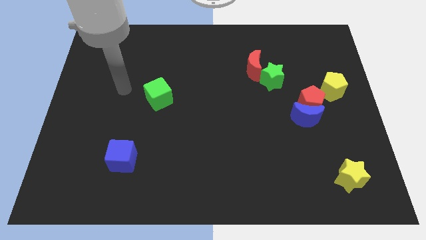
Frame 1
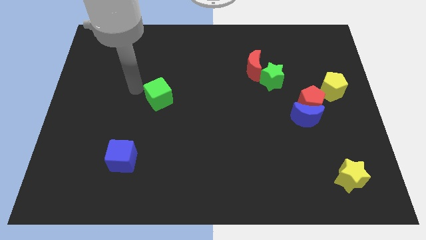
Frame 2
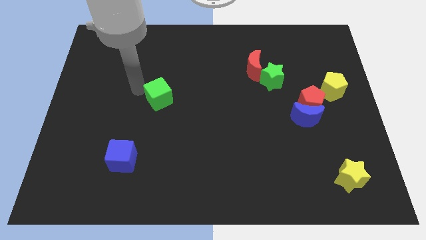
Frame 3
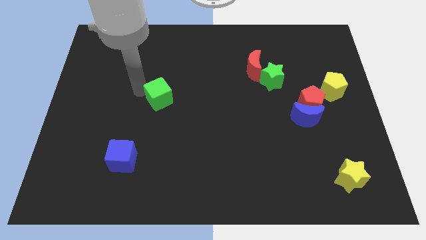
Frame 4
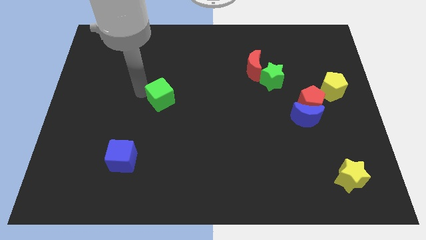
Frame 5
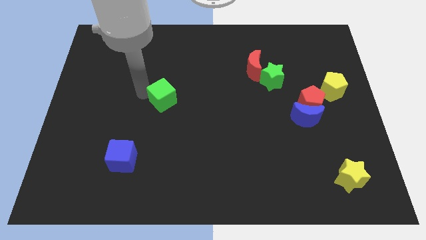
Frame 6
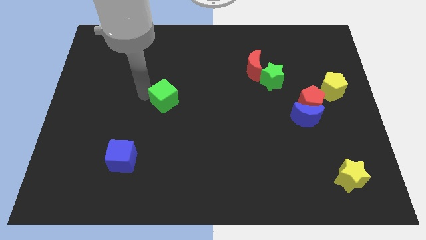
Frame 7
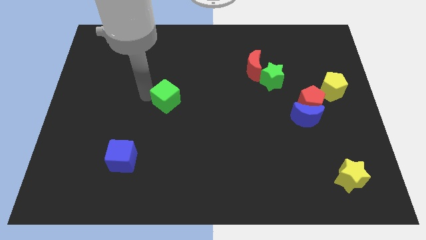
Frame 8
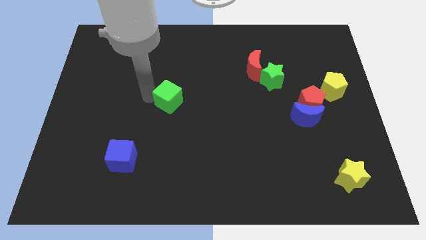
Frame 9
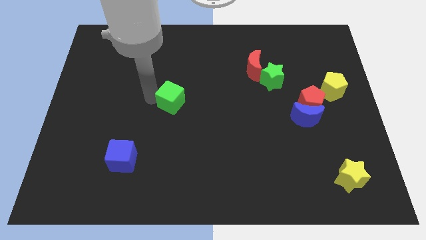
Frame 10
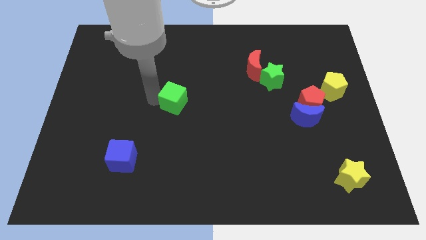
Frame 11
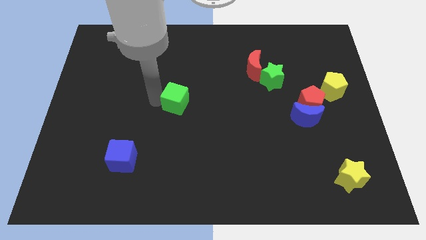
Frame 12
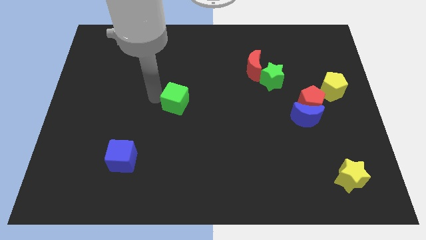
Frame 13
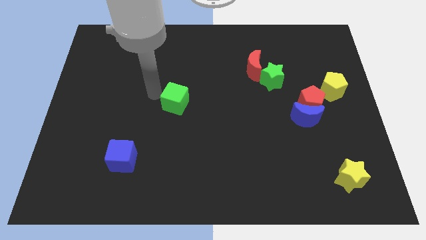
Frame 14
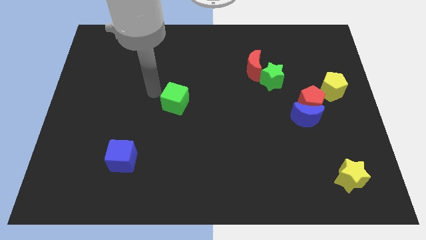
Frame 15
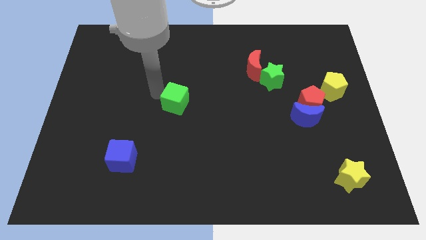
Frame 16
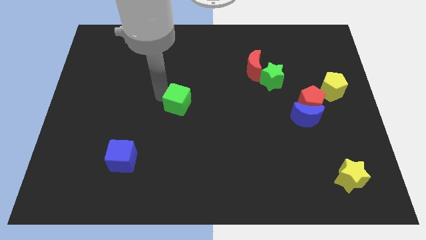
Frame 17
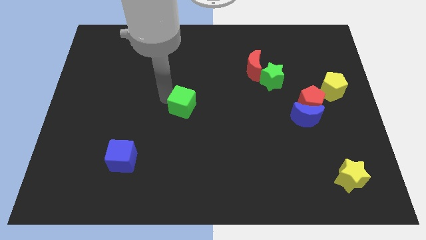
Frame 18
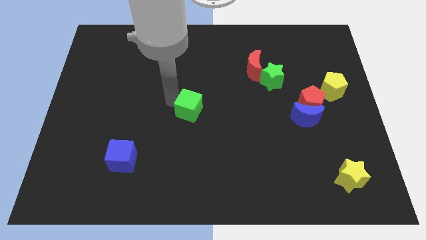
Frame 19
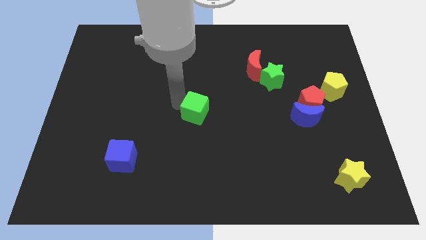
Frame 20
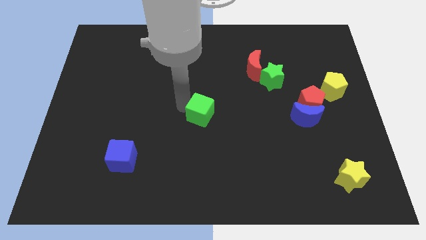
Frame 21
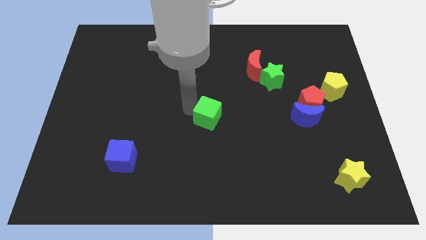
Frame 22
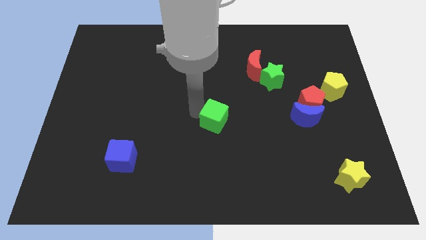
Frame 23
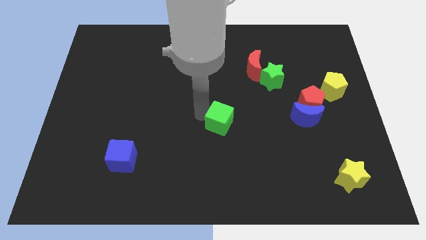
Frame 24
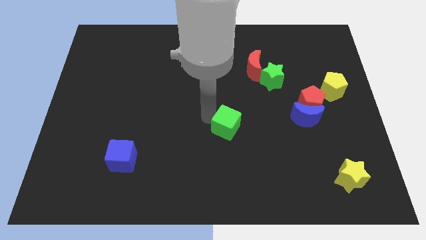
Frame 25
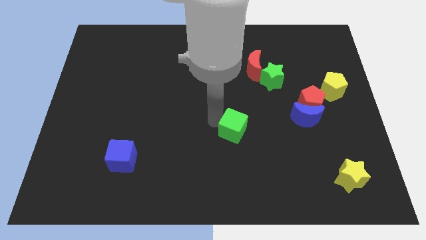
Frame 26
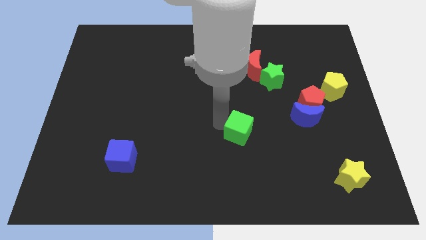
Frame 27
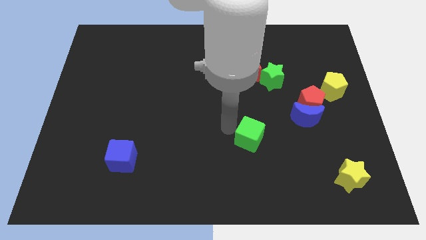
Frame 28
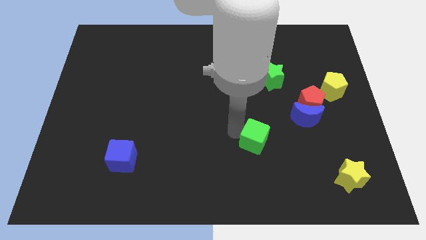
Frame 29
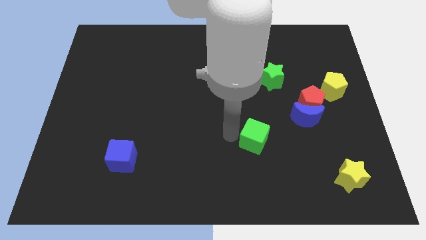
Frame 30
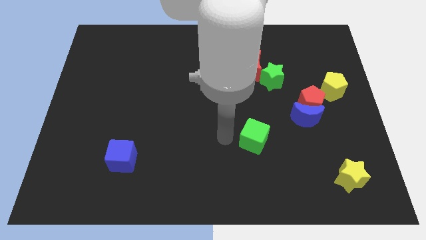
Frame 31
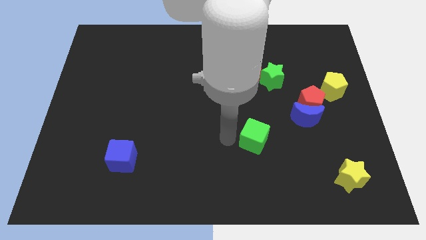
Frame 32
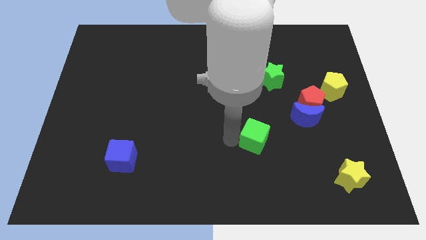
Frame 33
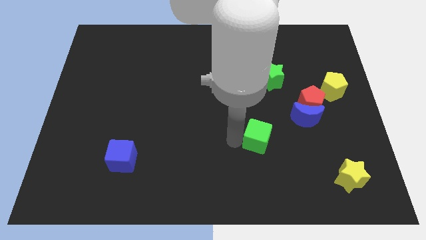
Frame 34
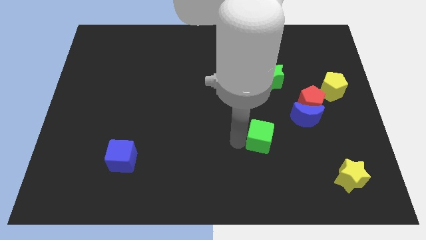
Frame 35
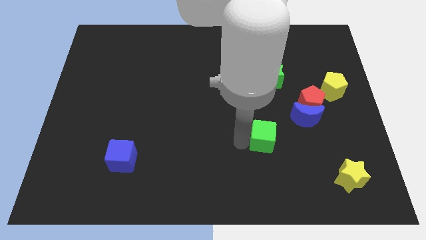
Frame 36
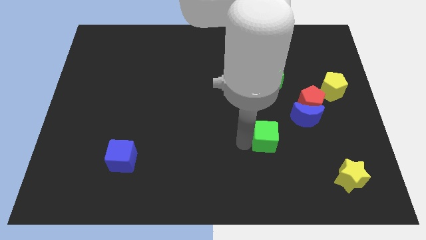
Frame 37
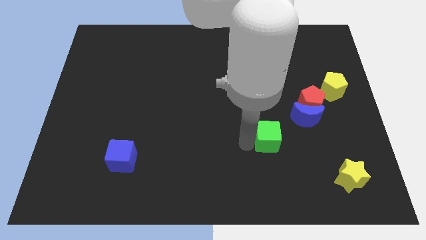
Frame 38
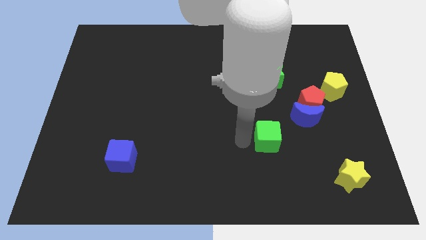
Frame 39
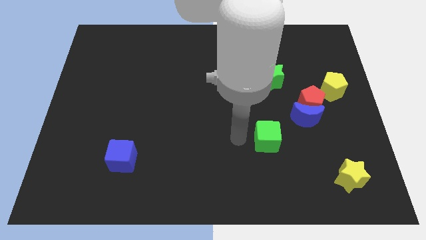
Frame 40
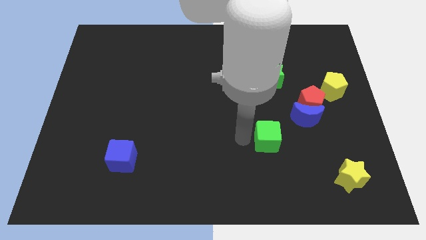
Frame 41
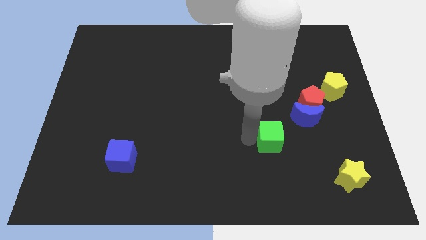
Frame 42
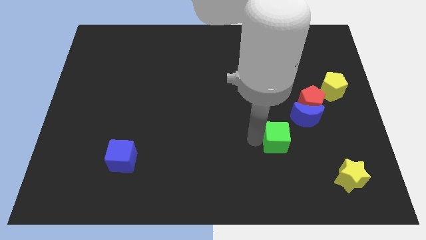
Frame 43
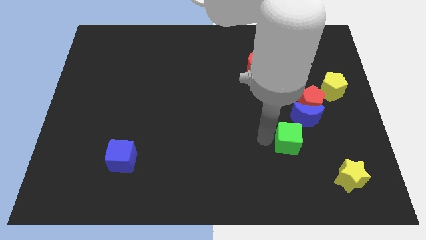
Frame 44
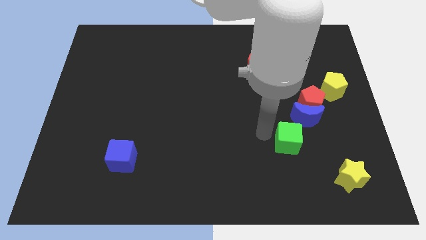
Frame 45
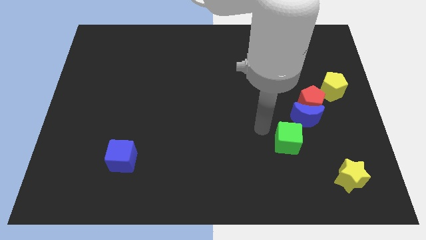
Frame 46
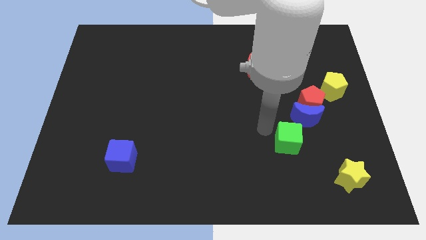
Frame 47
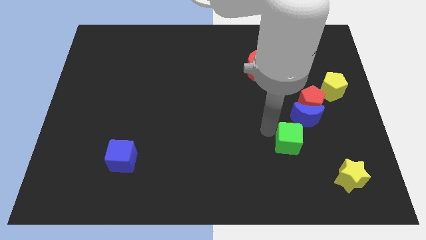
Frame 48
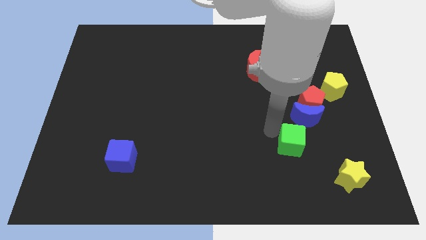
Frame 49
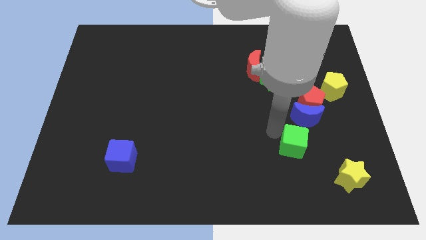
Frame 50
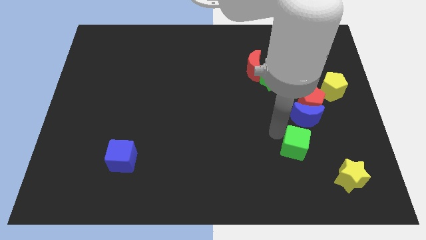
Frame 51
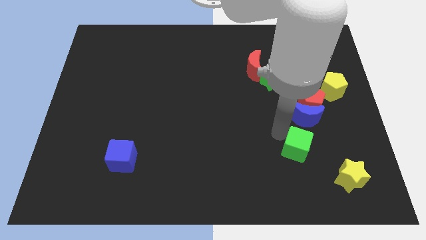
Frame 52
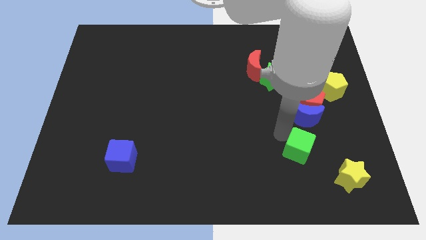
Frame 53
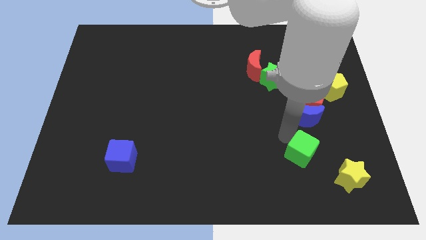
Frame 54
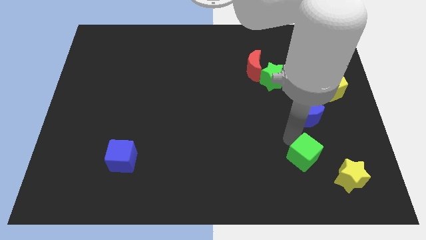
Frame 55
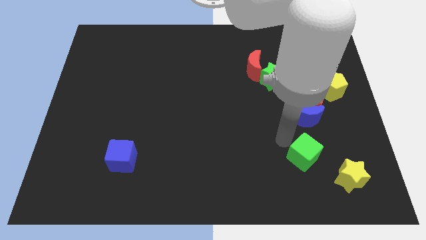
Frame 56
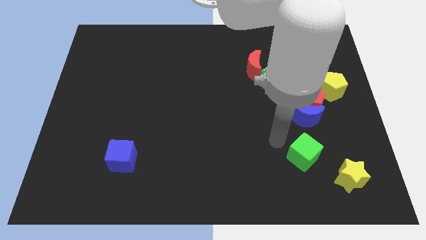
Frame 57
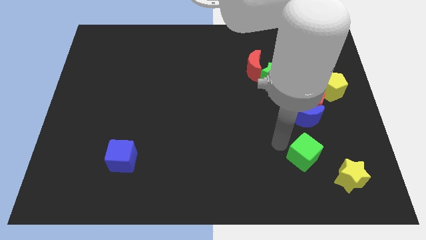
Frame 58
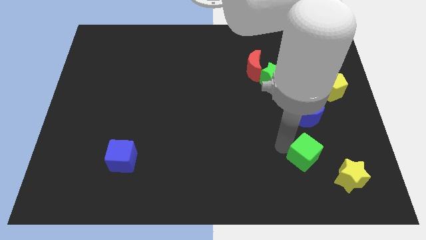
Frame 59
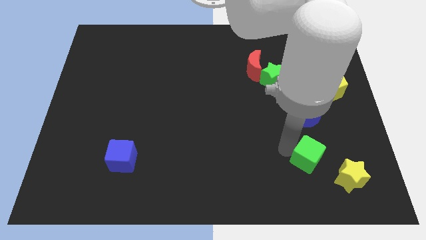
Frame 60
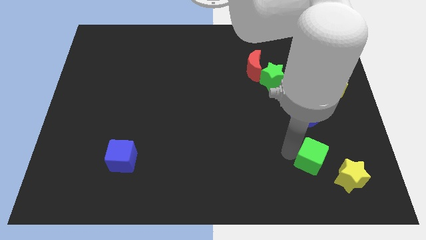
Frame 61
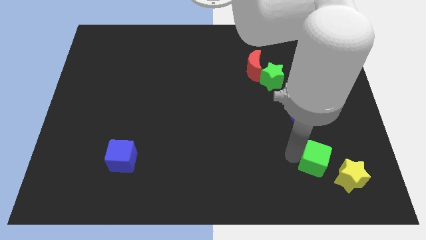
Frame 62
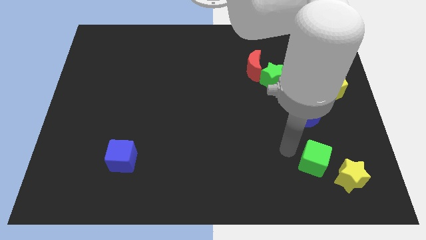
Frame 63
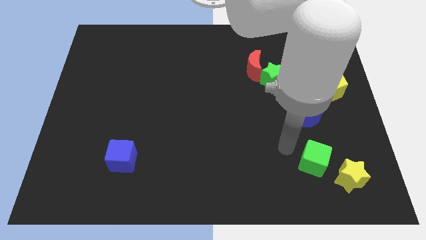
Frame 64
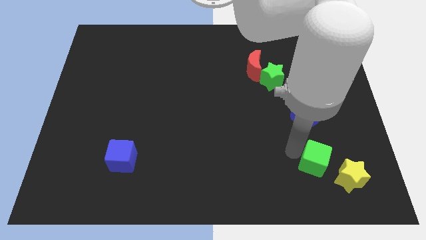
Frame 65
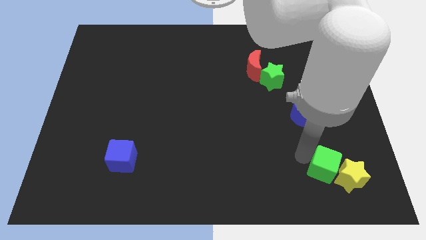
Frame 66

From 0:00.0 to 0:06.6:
put the green cube next to the yellow star

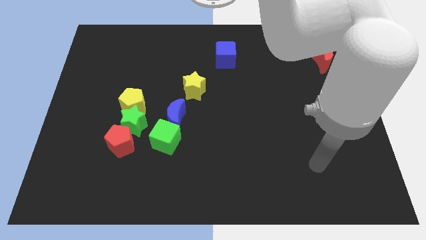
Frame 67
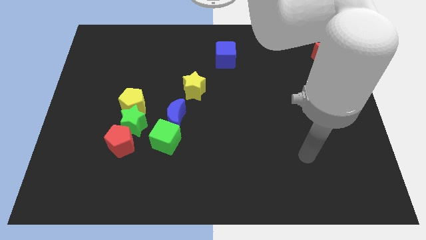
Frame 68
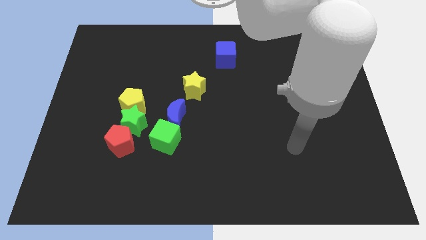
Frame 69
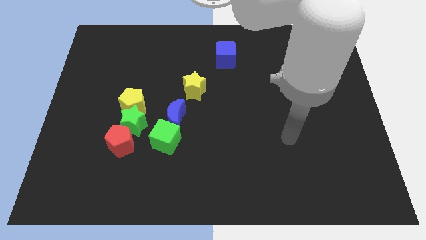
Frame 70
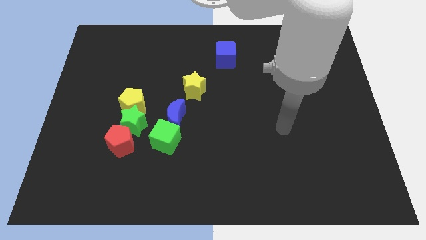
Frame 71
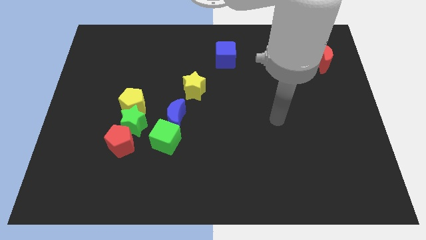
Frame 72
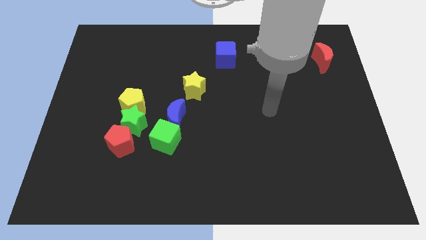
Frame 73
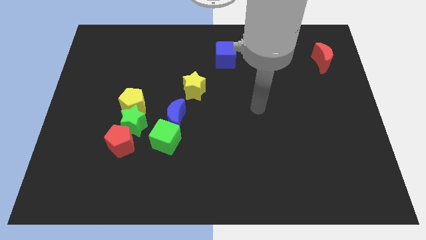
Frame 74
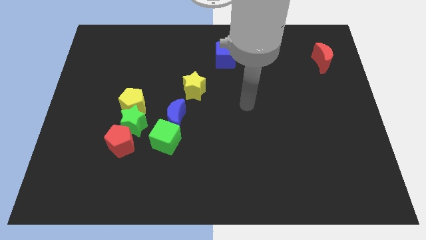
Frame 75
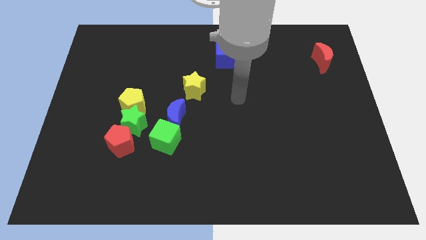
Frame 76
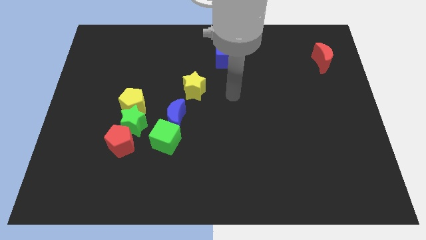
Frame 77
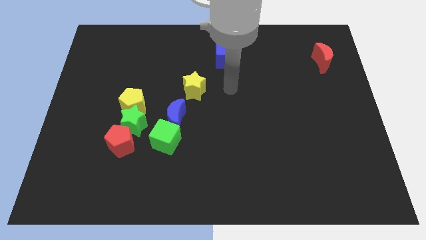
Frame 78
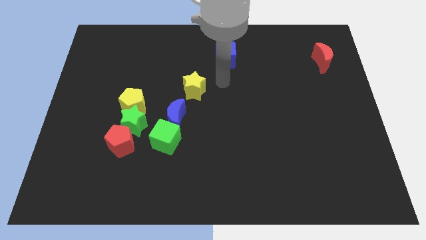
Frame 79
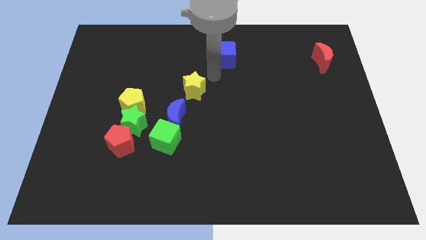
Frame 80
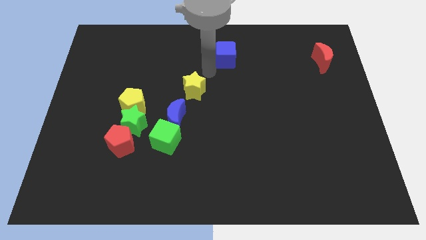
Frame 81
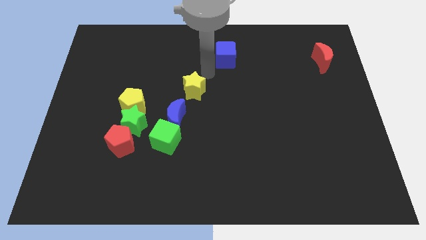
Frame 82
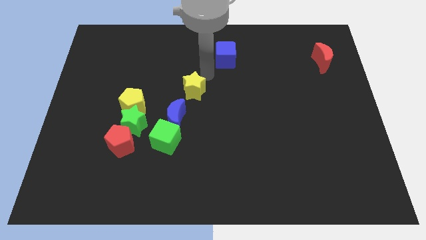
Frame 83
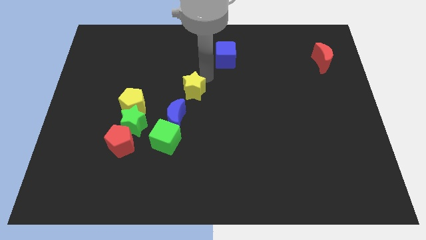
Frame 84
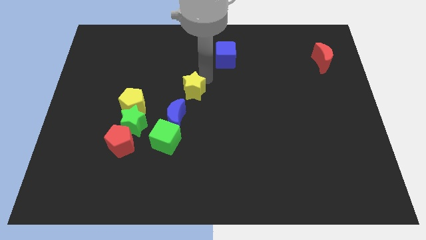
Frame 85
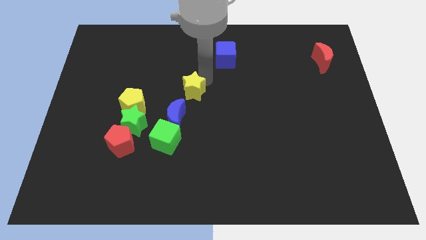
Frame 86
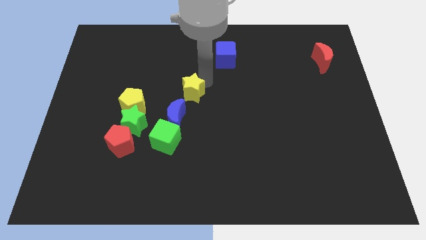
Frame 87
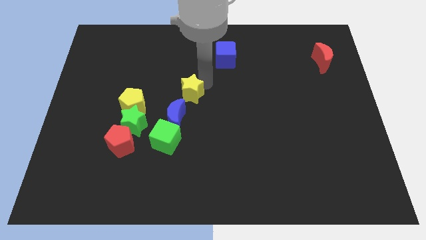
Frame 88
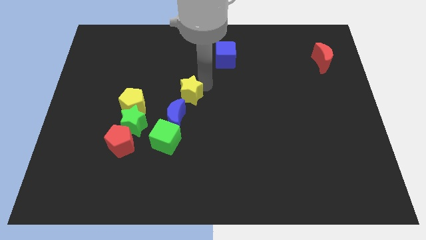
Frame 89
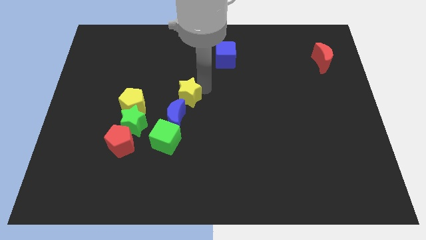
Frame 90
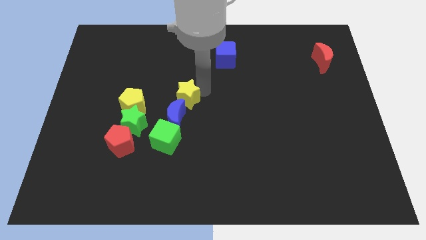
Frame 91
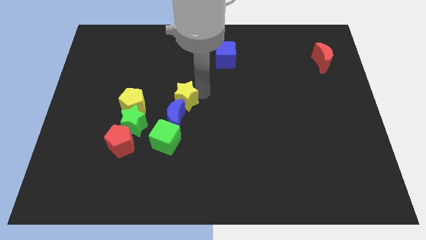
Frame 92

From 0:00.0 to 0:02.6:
move the yellow star next to the blue moon
